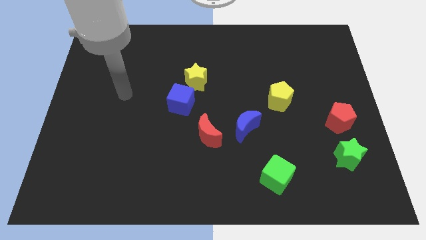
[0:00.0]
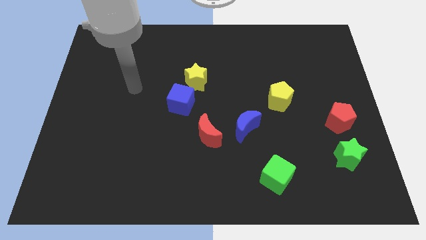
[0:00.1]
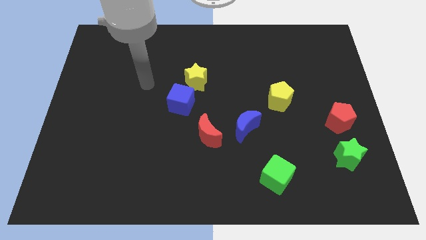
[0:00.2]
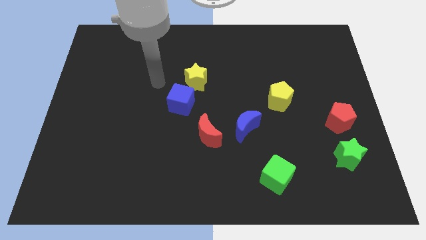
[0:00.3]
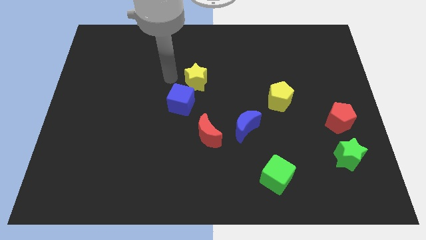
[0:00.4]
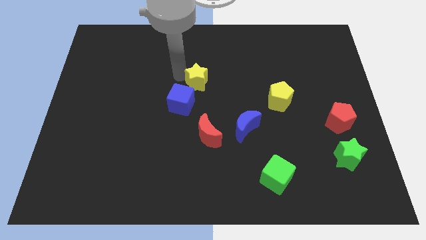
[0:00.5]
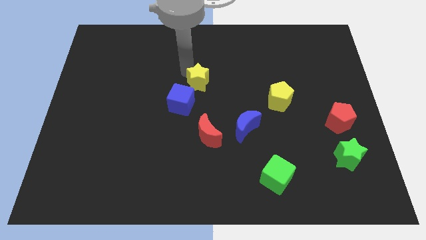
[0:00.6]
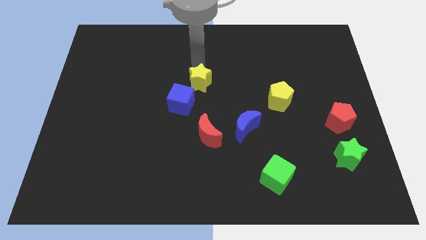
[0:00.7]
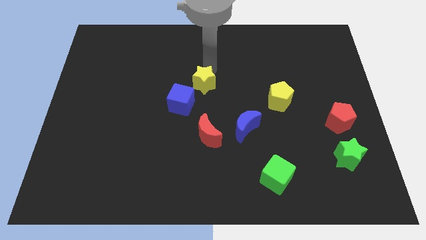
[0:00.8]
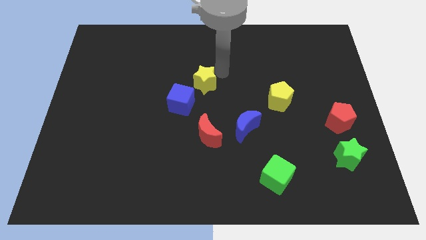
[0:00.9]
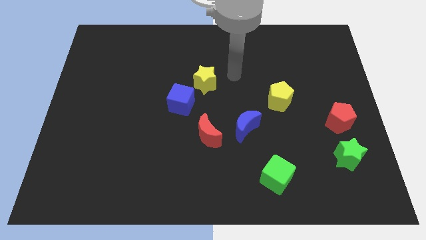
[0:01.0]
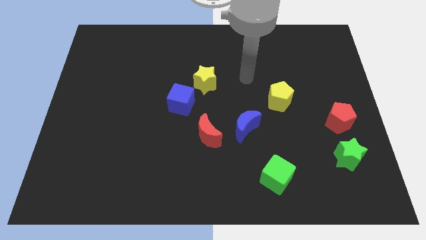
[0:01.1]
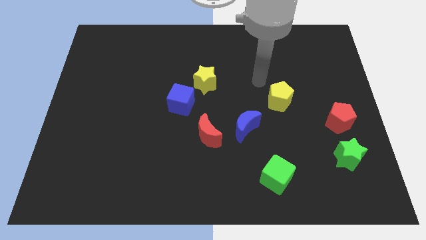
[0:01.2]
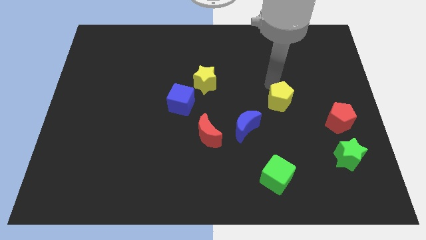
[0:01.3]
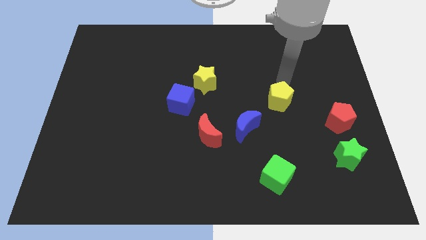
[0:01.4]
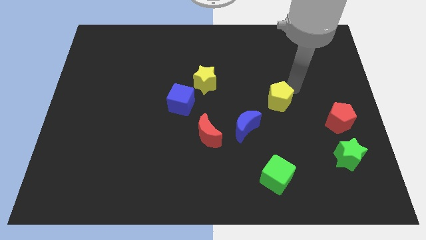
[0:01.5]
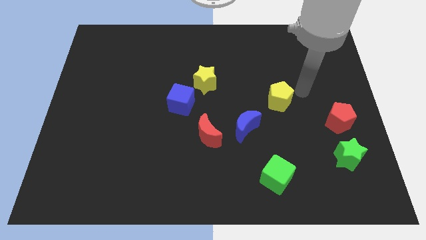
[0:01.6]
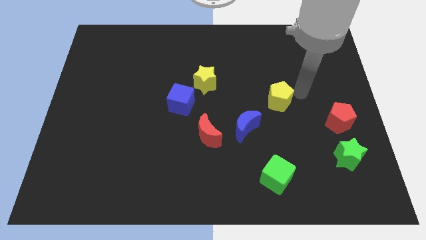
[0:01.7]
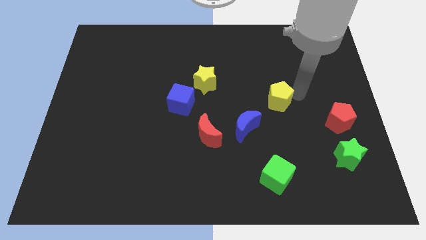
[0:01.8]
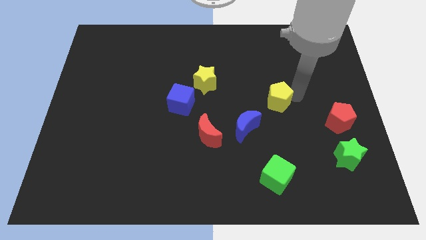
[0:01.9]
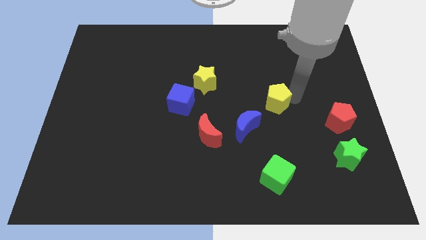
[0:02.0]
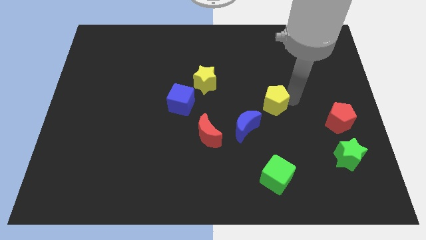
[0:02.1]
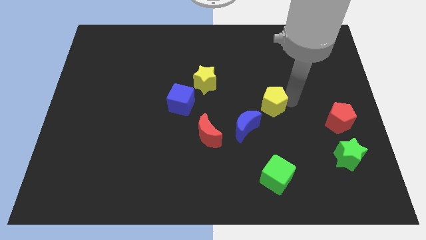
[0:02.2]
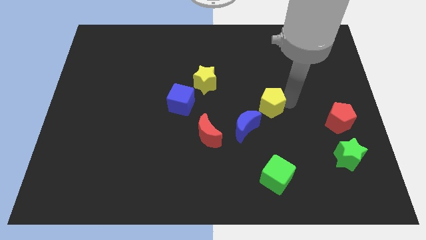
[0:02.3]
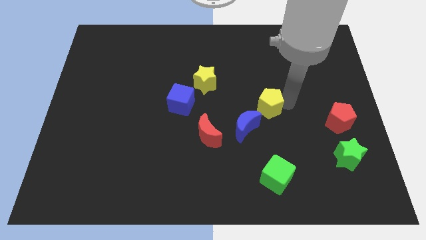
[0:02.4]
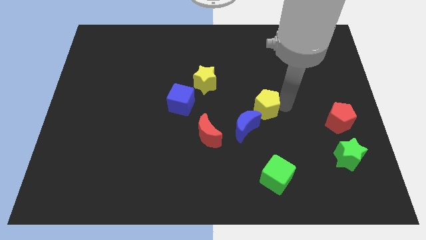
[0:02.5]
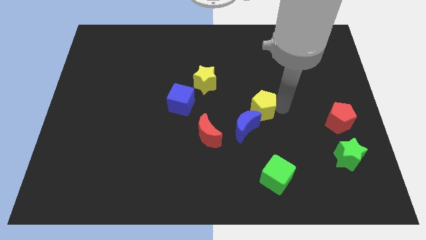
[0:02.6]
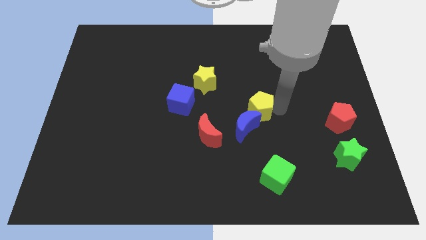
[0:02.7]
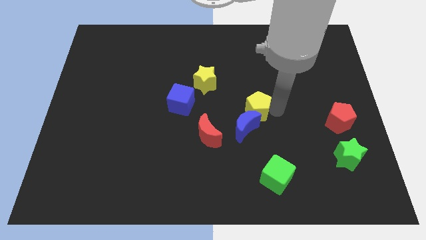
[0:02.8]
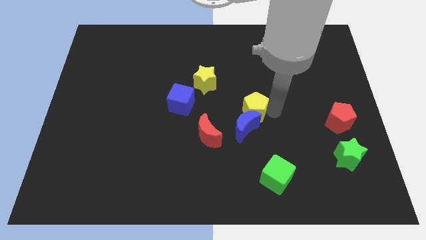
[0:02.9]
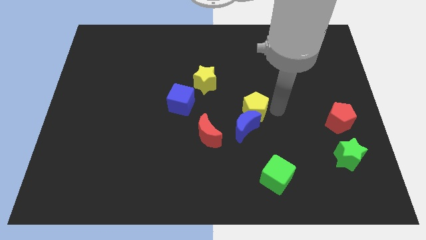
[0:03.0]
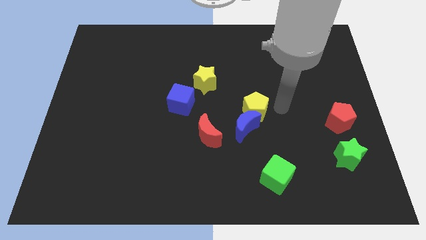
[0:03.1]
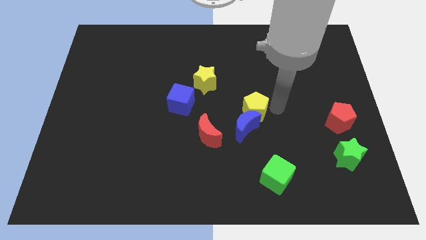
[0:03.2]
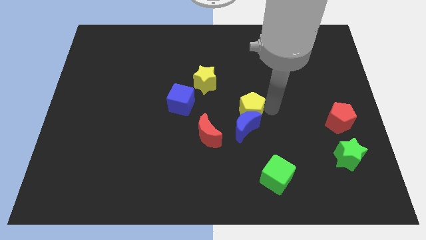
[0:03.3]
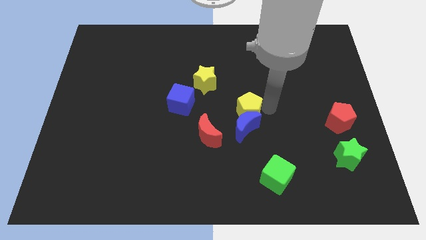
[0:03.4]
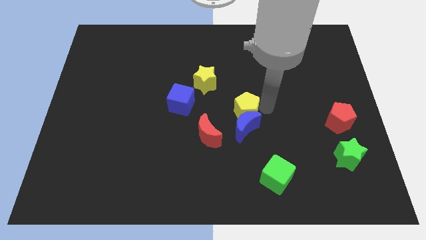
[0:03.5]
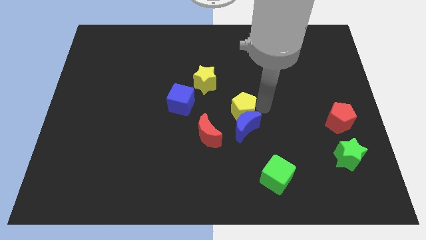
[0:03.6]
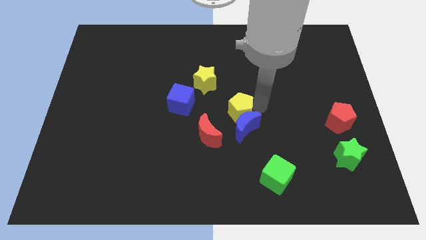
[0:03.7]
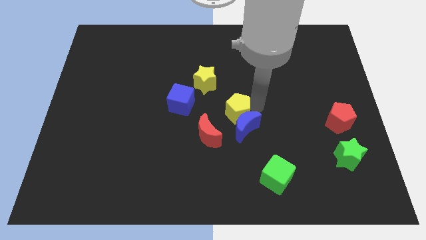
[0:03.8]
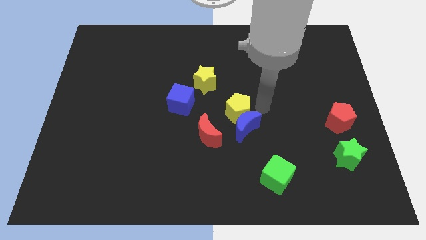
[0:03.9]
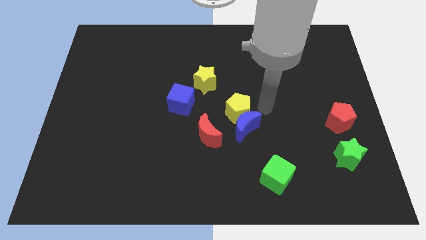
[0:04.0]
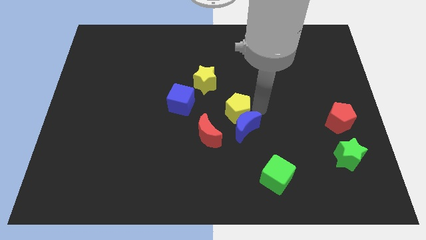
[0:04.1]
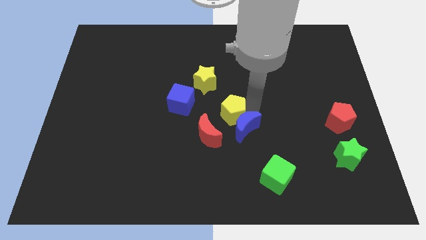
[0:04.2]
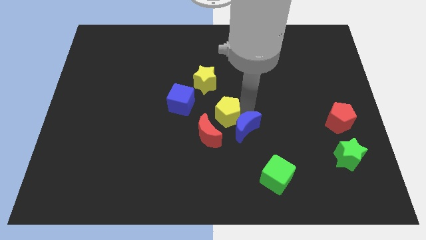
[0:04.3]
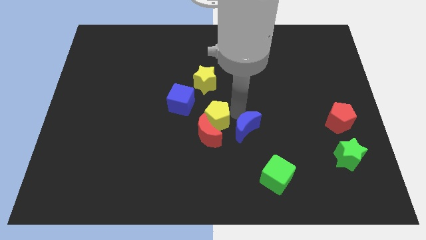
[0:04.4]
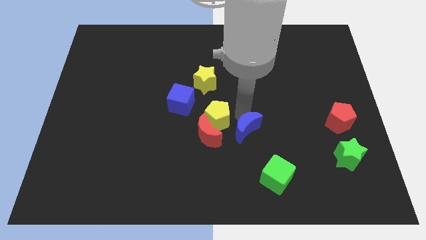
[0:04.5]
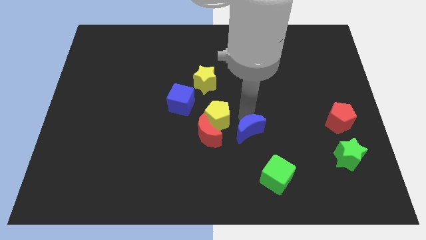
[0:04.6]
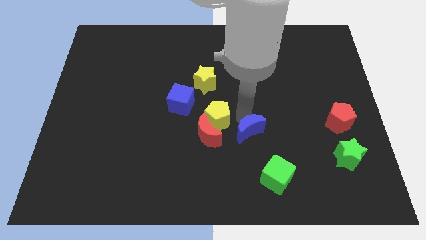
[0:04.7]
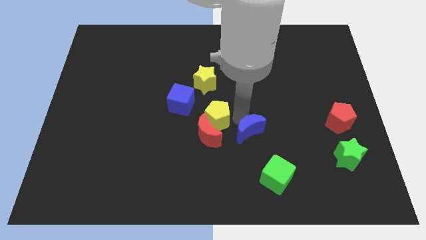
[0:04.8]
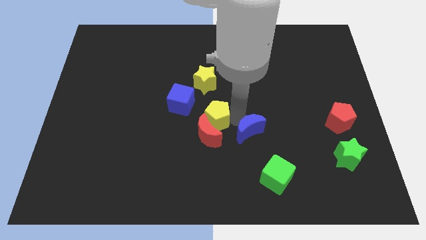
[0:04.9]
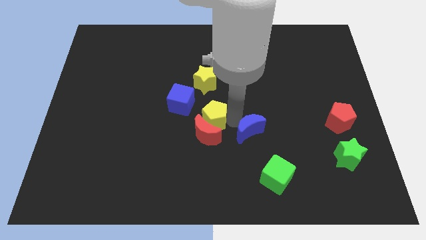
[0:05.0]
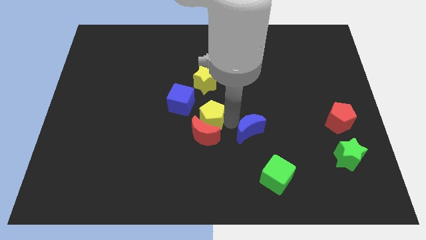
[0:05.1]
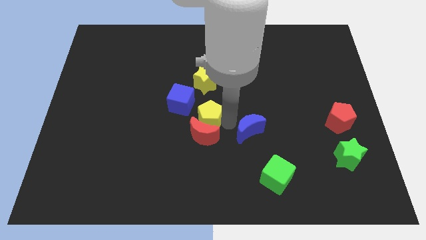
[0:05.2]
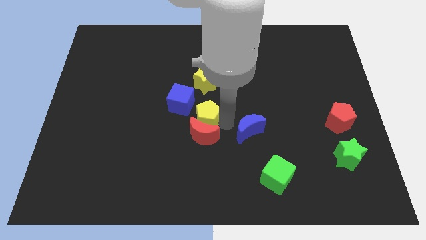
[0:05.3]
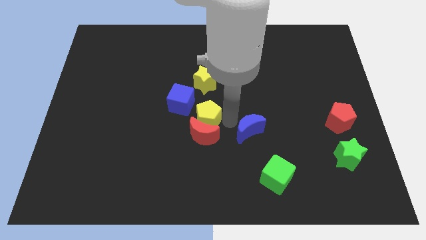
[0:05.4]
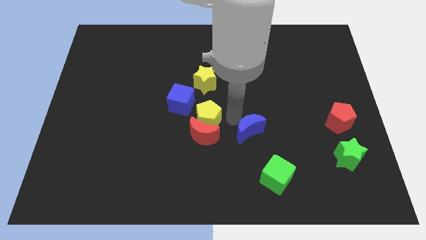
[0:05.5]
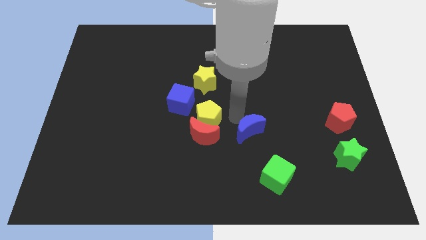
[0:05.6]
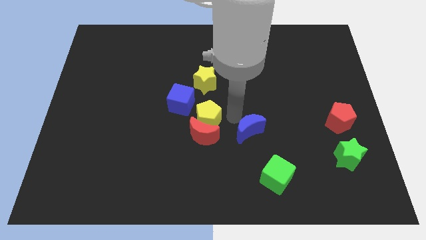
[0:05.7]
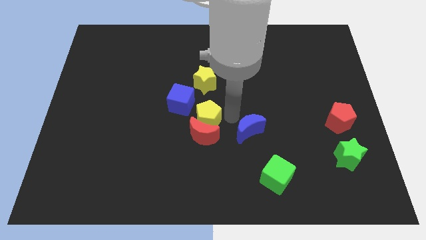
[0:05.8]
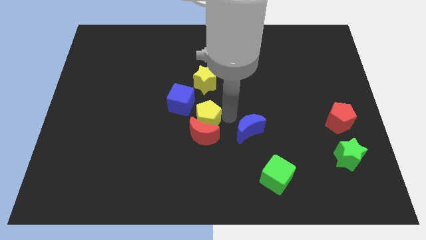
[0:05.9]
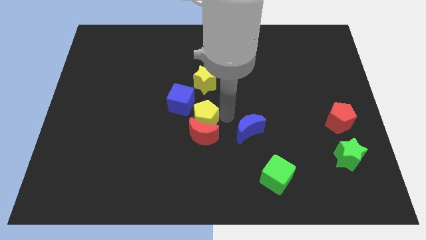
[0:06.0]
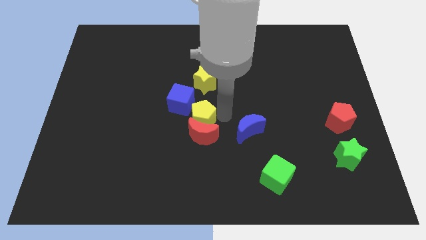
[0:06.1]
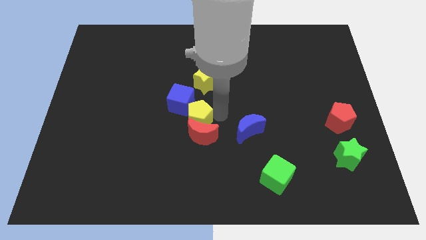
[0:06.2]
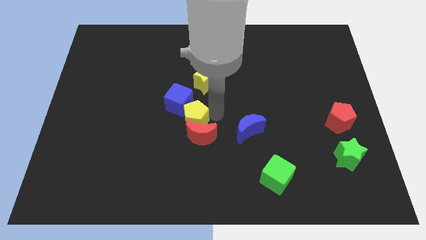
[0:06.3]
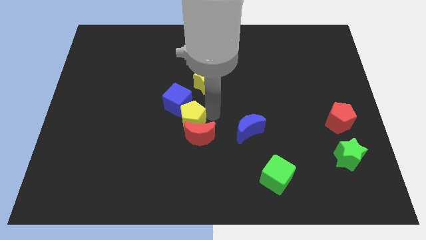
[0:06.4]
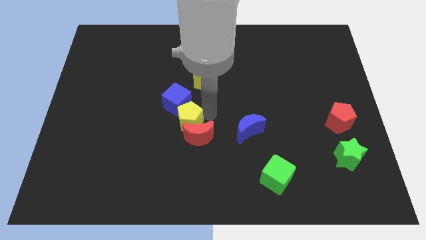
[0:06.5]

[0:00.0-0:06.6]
move the yellow pentagon left

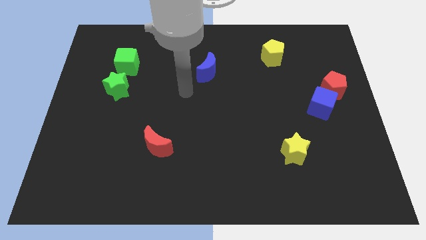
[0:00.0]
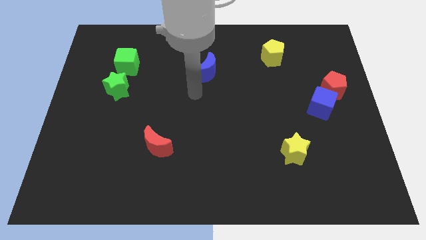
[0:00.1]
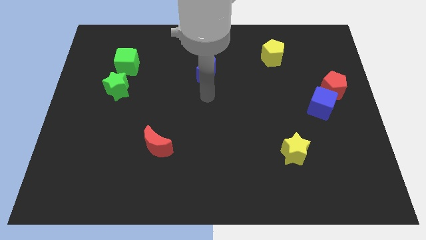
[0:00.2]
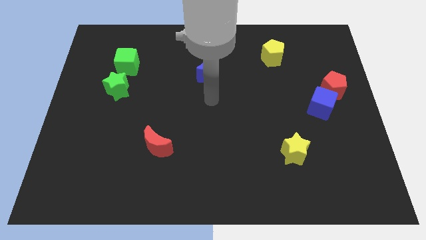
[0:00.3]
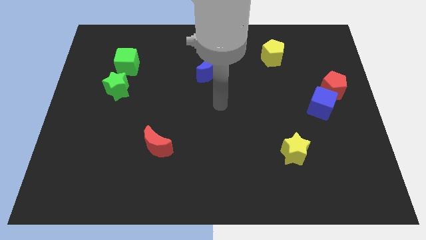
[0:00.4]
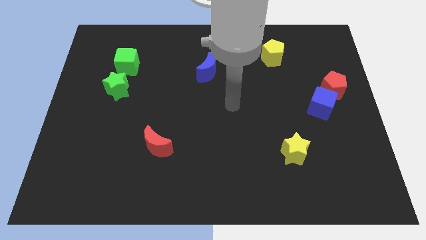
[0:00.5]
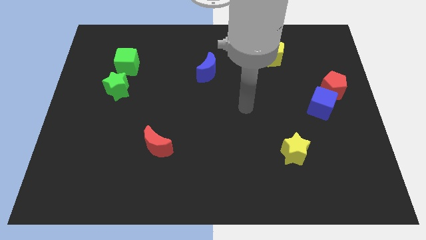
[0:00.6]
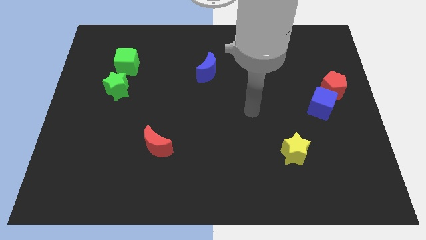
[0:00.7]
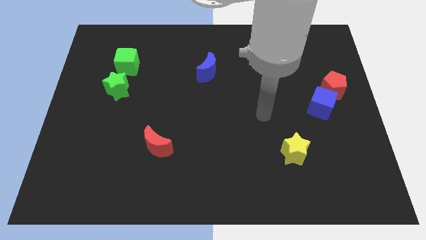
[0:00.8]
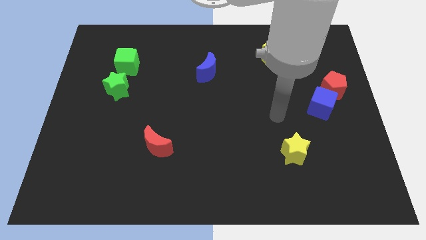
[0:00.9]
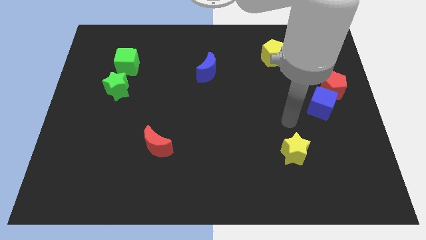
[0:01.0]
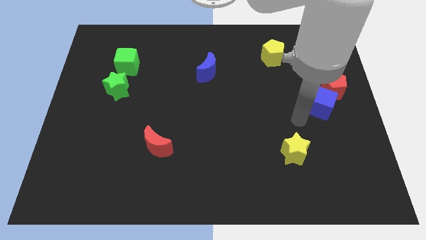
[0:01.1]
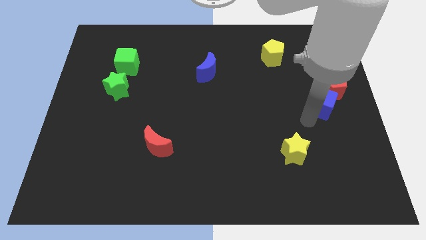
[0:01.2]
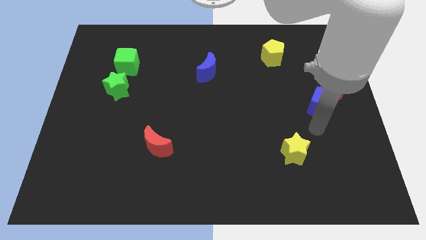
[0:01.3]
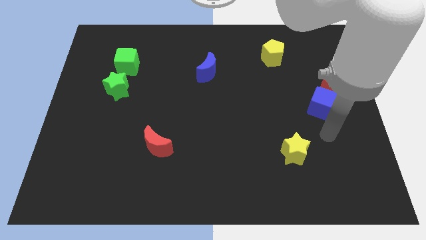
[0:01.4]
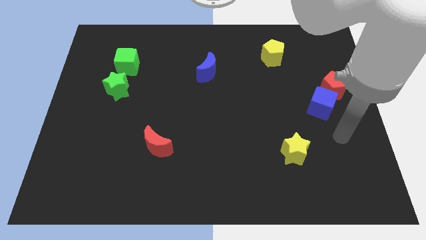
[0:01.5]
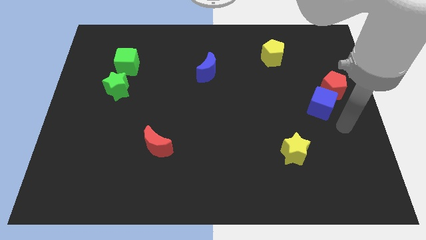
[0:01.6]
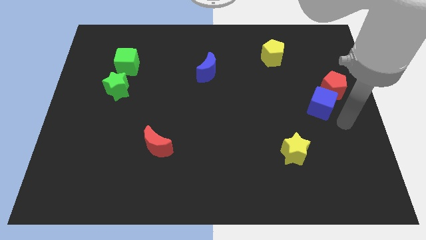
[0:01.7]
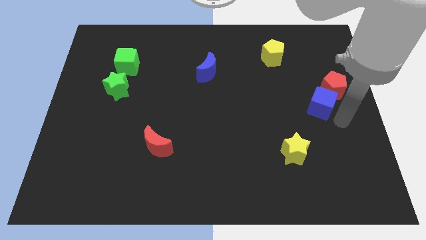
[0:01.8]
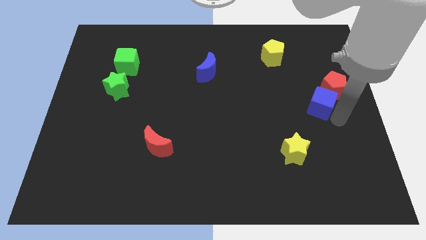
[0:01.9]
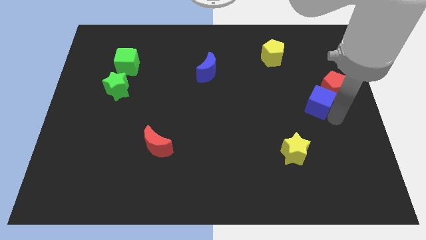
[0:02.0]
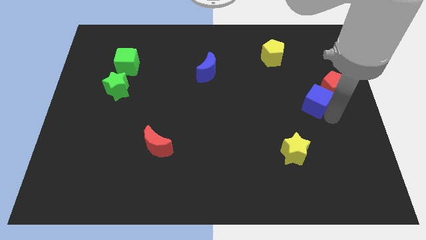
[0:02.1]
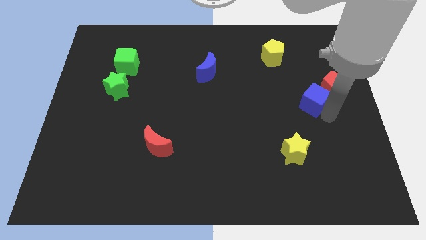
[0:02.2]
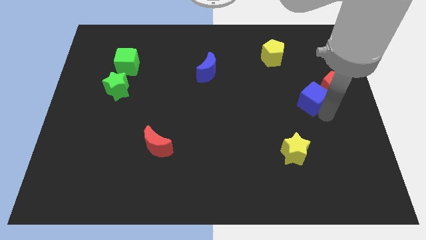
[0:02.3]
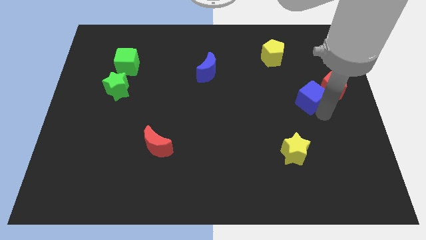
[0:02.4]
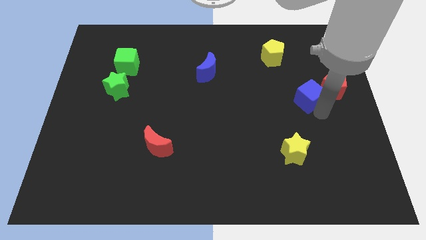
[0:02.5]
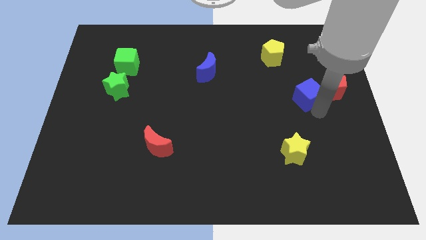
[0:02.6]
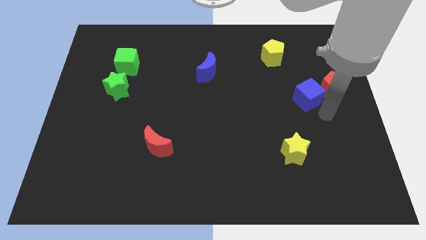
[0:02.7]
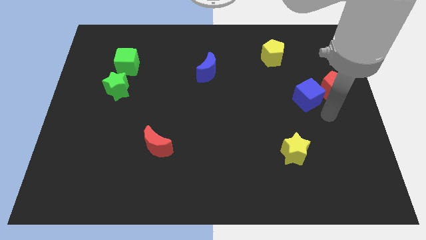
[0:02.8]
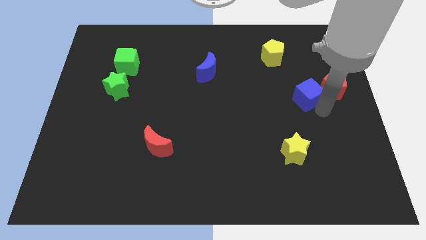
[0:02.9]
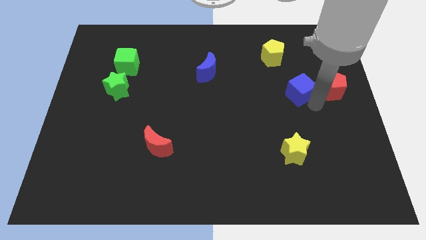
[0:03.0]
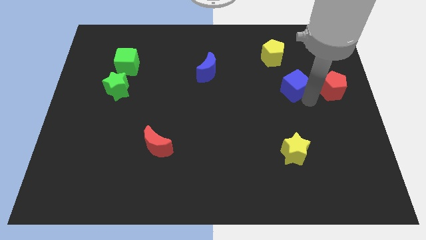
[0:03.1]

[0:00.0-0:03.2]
push the blue cube a little diagonally up and to the left
